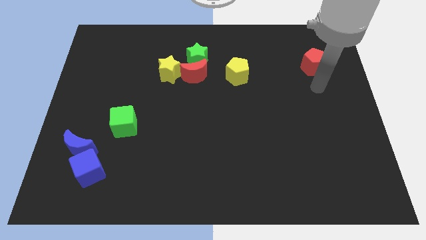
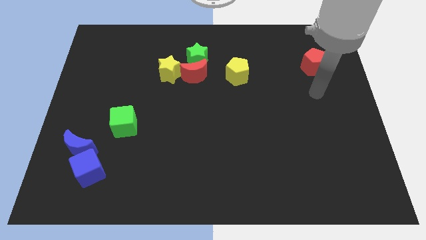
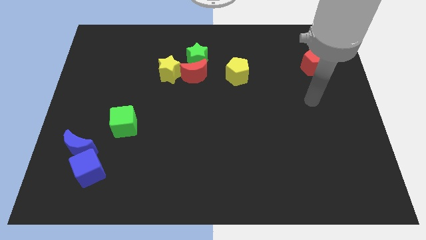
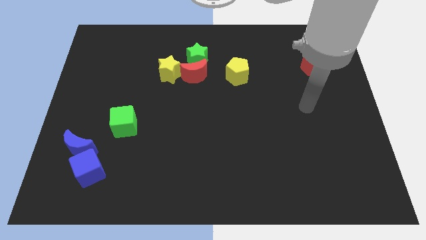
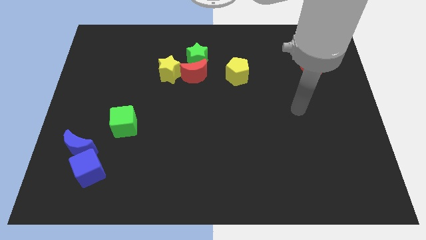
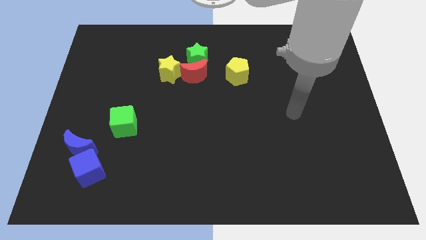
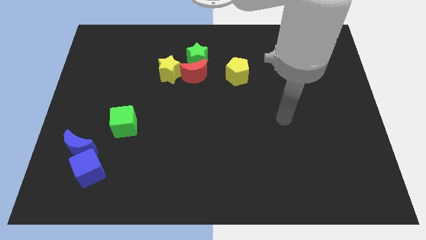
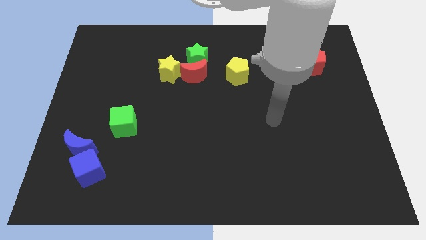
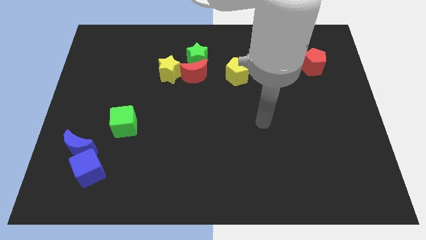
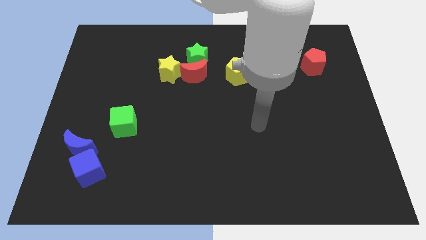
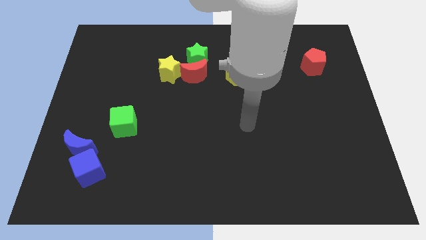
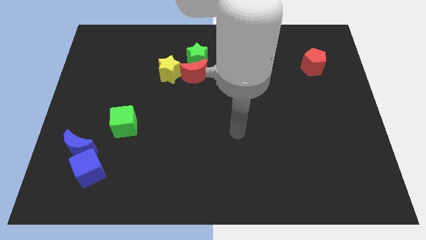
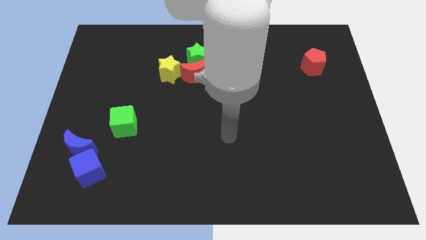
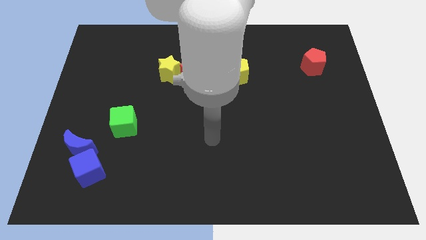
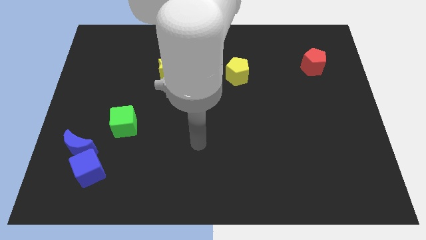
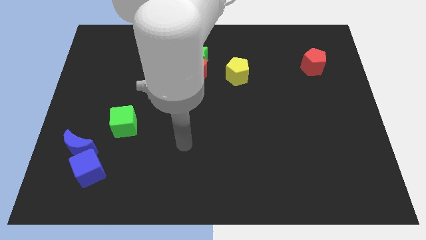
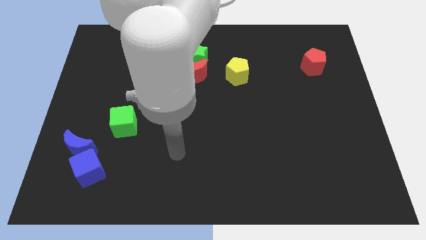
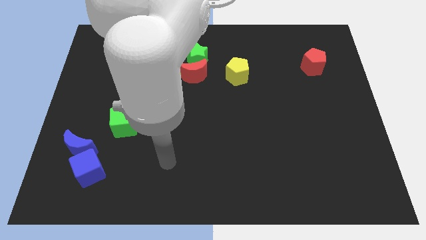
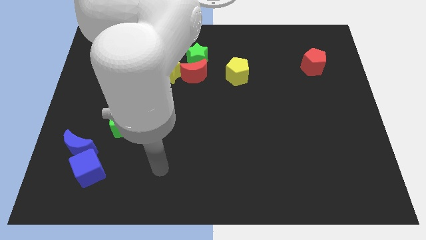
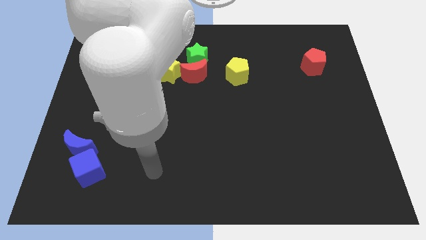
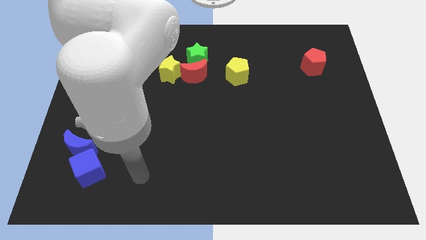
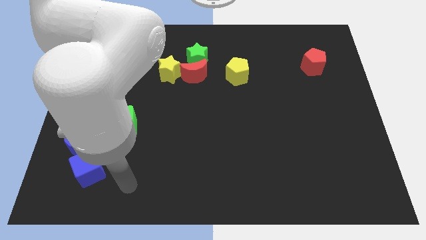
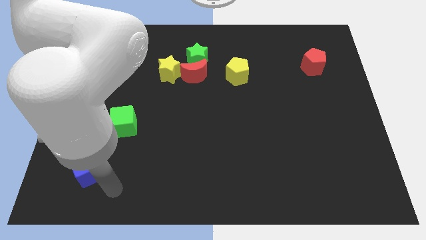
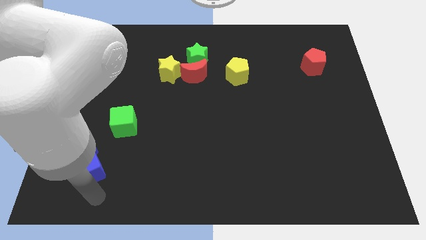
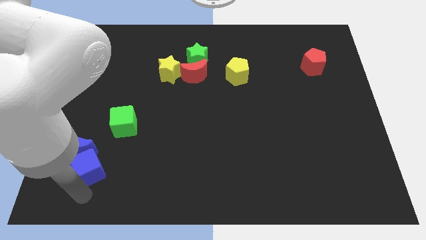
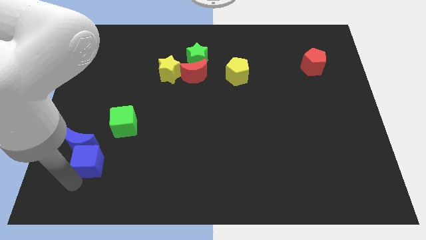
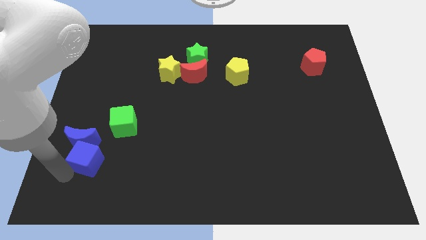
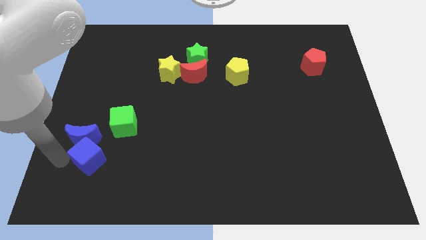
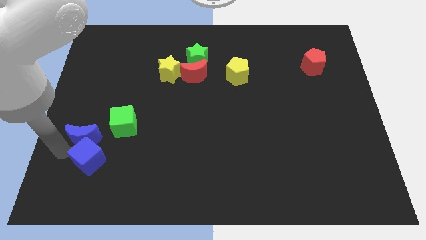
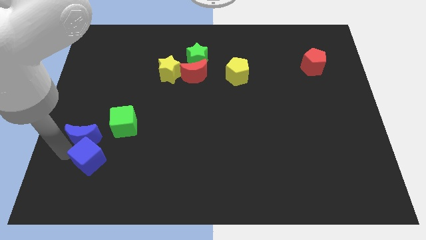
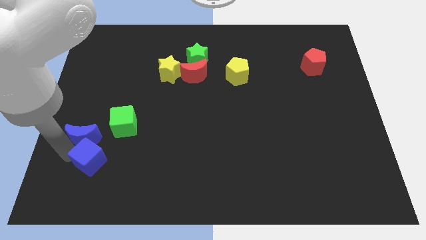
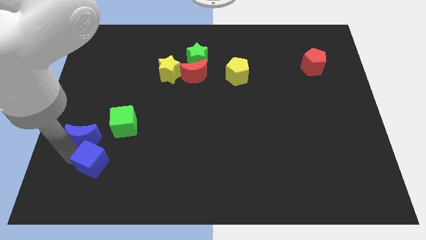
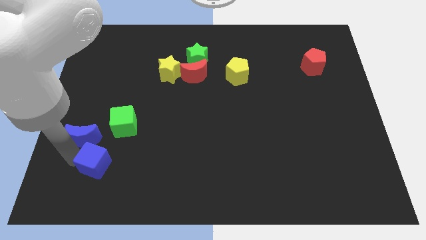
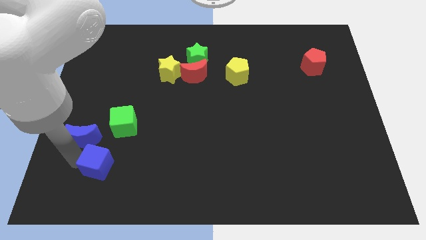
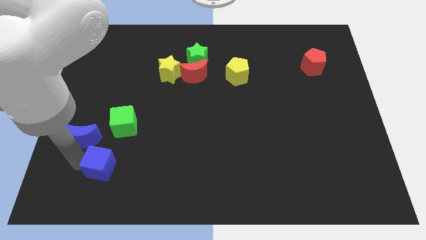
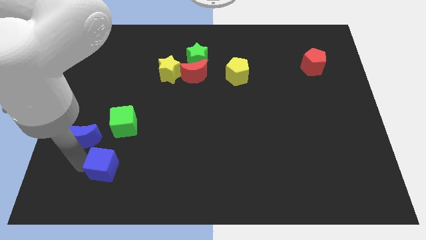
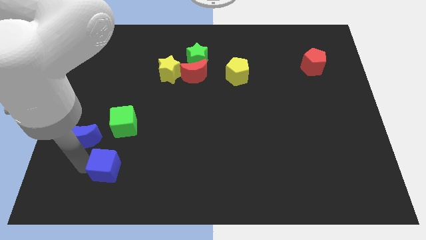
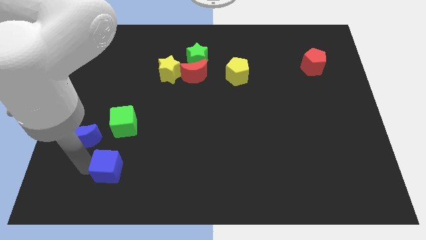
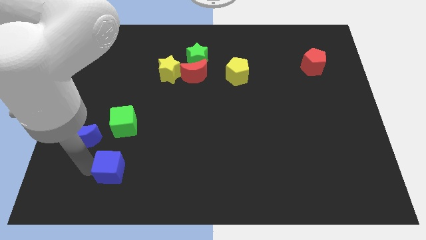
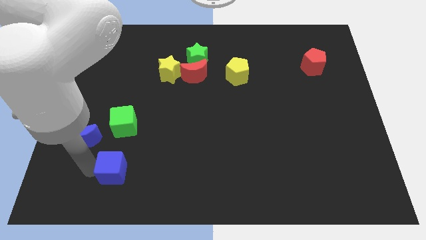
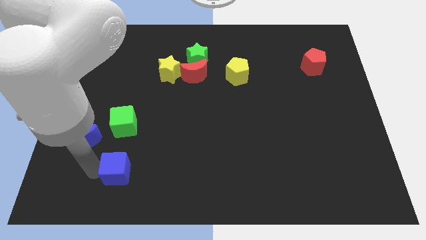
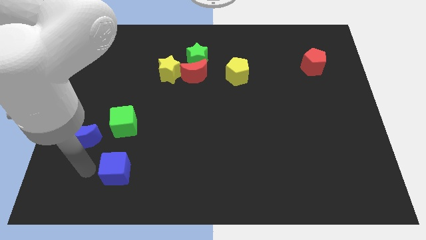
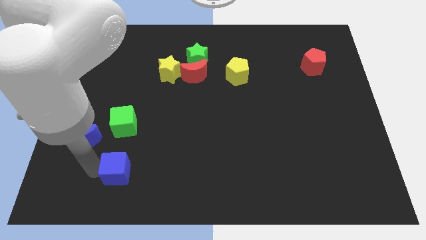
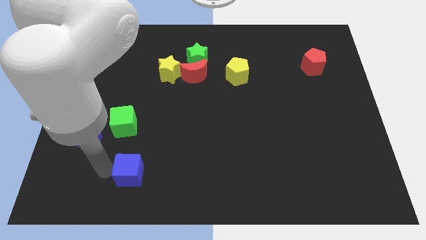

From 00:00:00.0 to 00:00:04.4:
slide the blue cube right a little

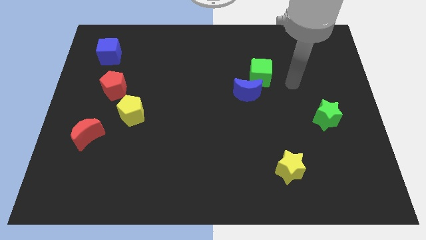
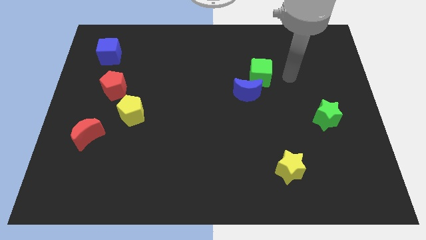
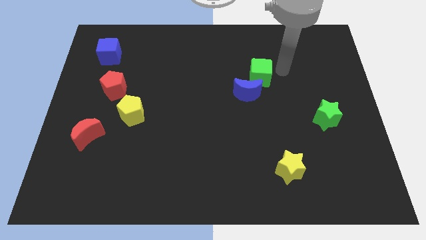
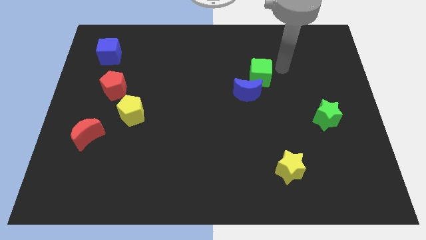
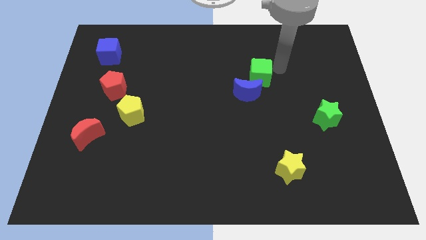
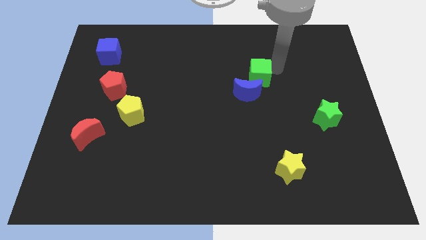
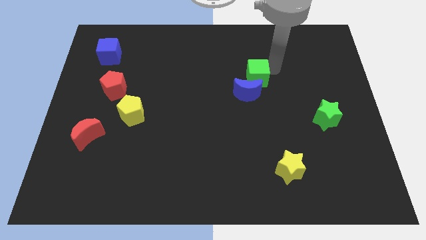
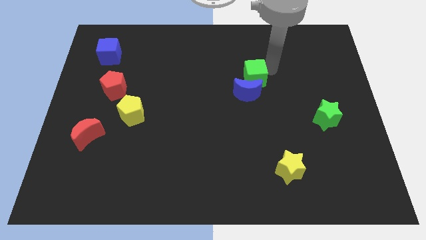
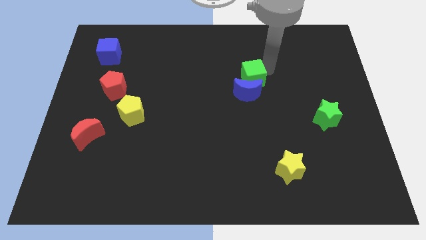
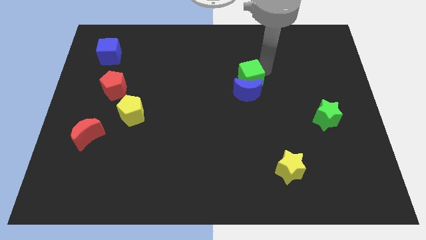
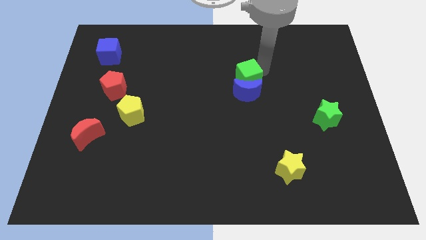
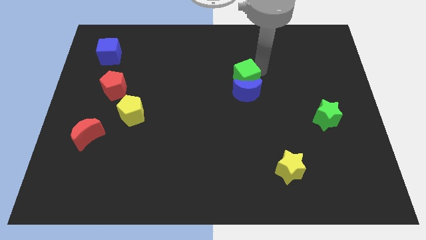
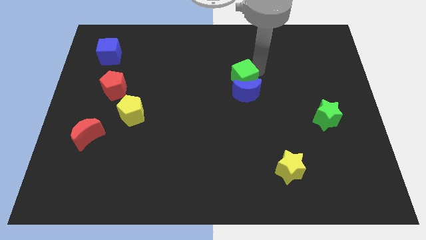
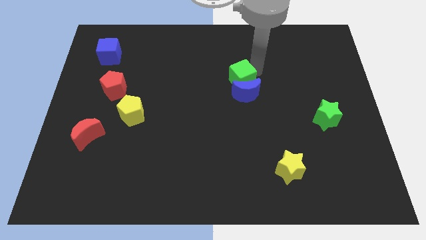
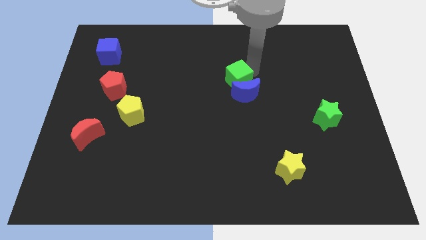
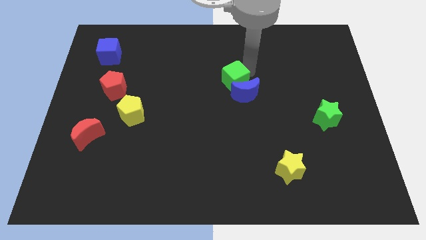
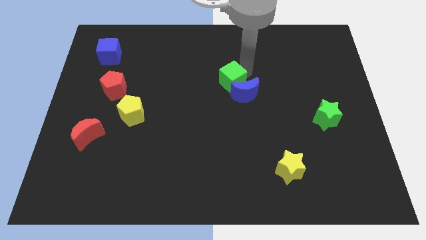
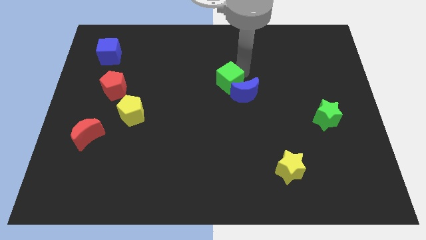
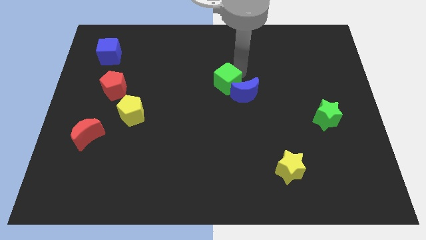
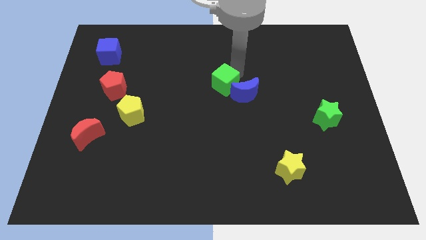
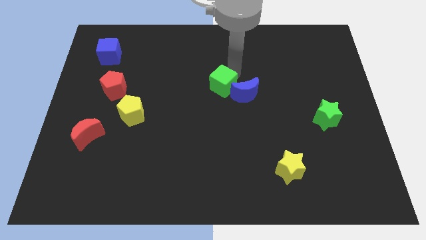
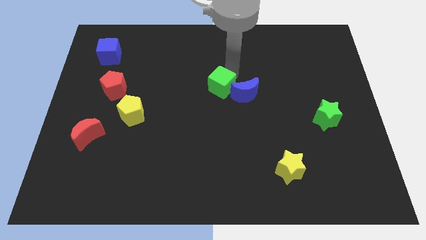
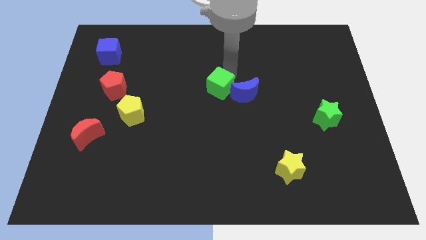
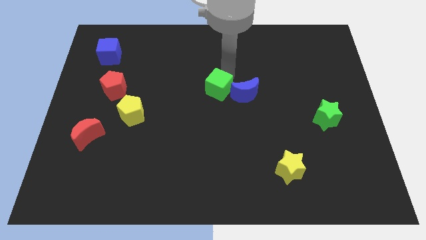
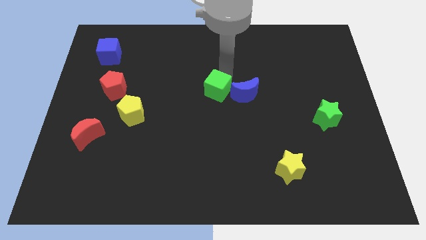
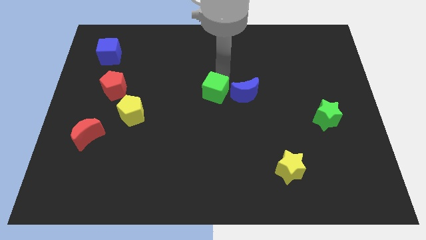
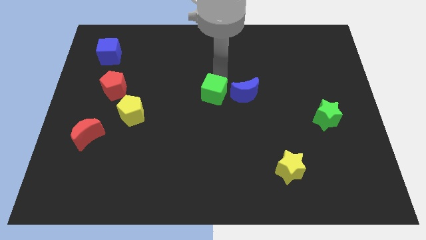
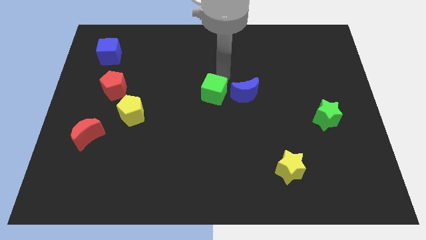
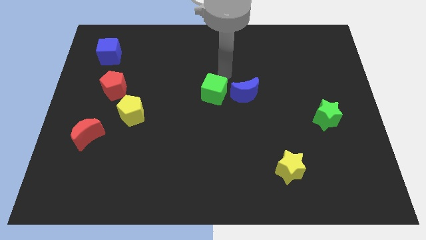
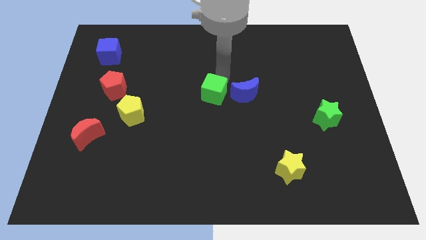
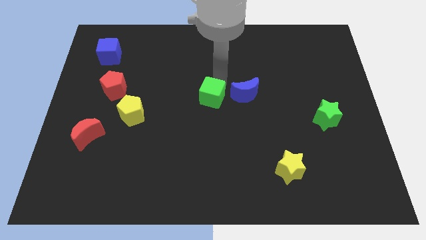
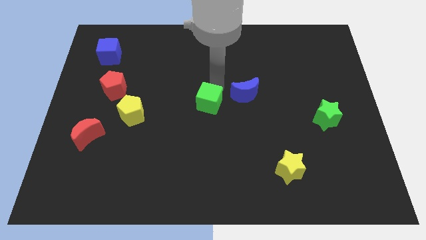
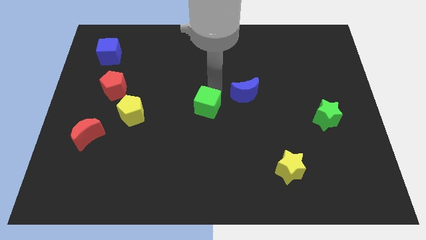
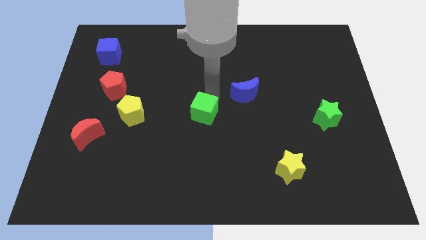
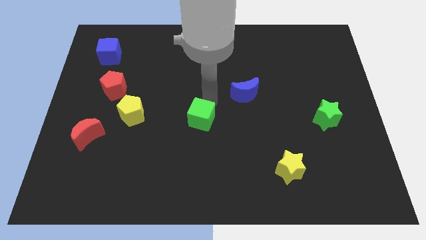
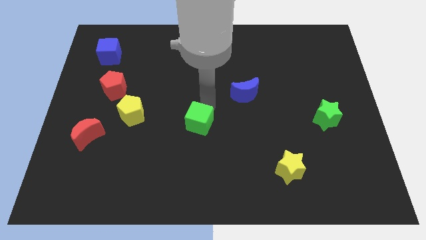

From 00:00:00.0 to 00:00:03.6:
slide the green cube down and to the left diagonally
